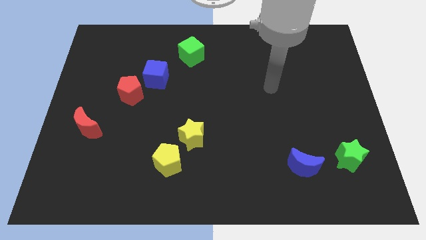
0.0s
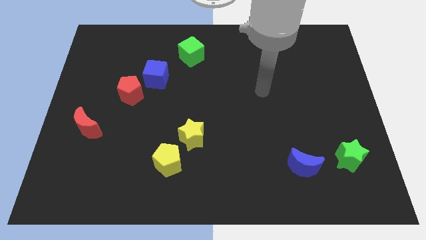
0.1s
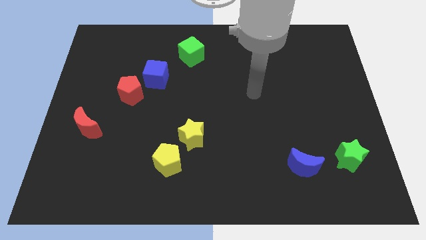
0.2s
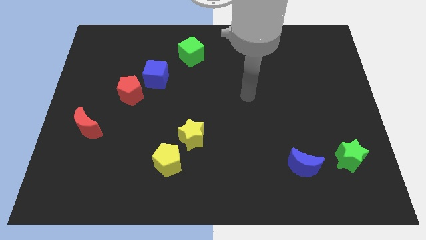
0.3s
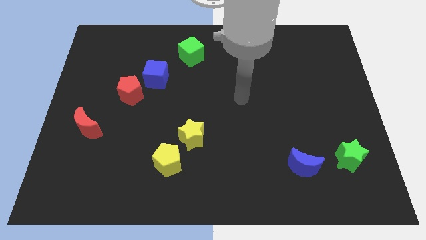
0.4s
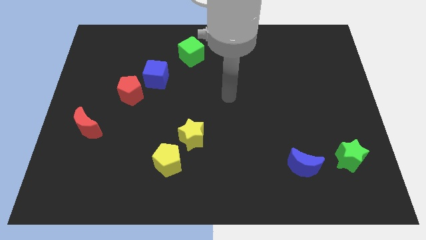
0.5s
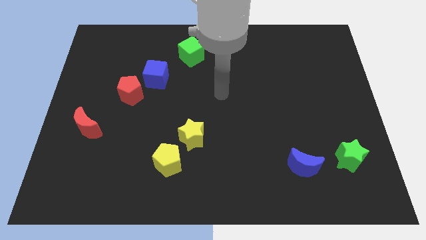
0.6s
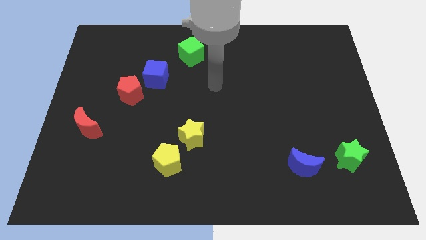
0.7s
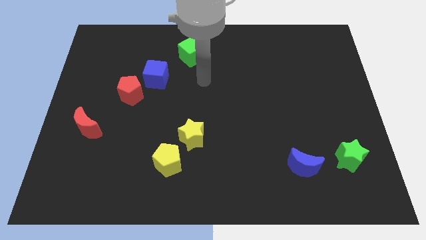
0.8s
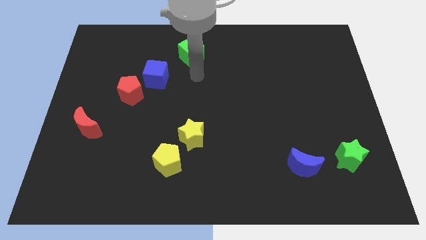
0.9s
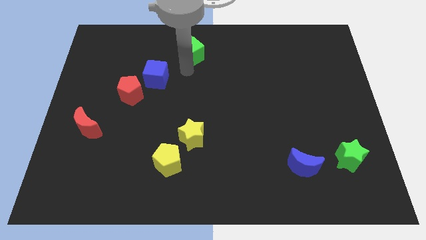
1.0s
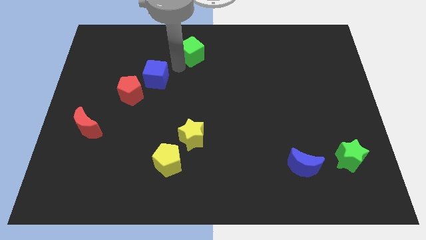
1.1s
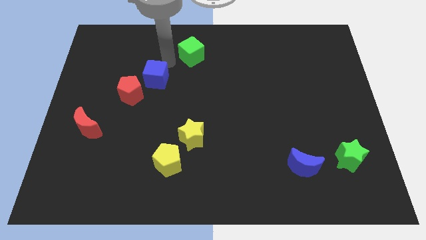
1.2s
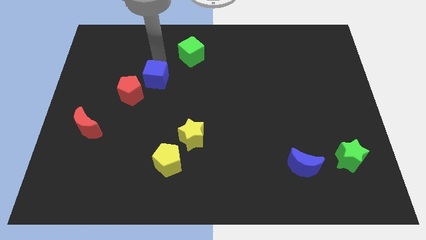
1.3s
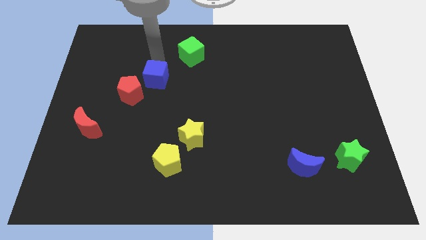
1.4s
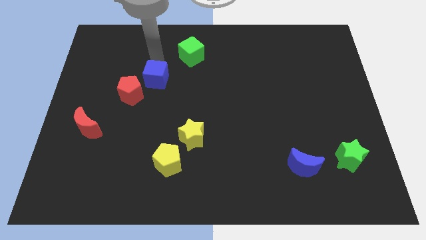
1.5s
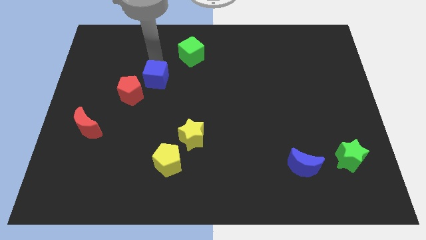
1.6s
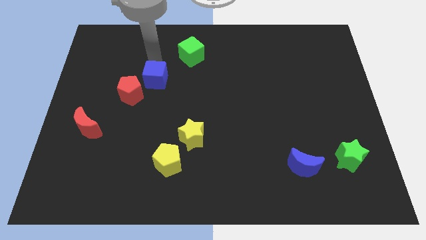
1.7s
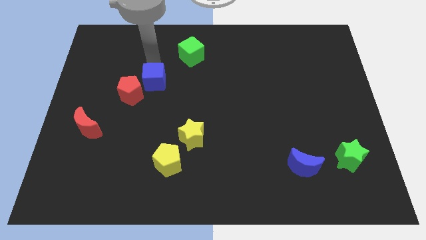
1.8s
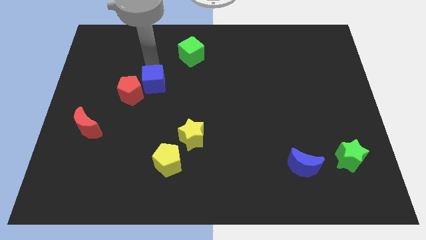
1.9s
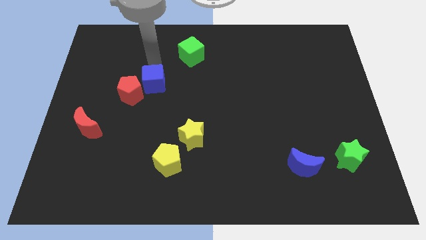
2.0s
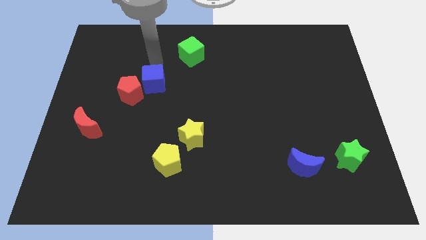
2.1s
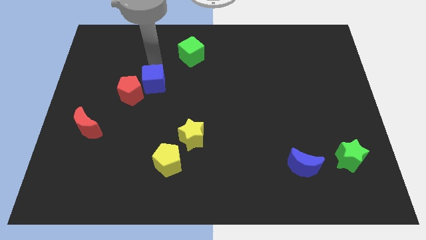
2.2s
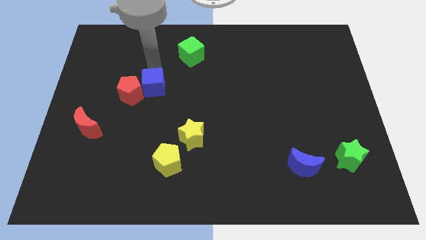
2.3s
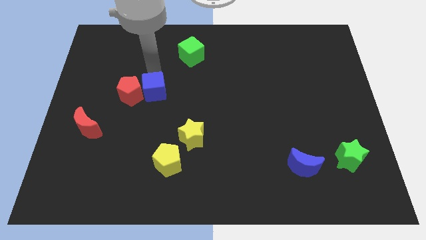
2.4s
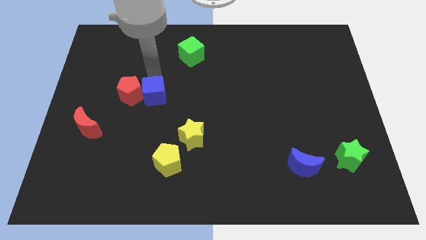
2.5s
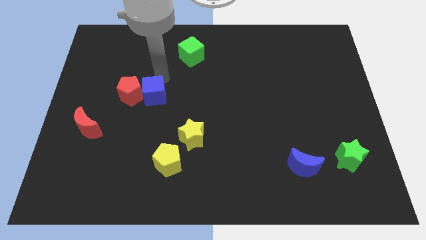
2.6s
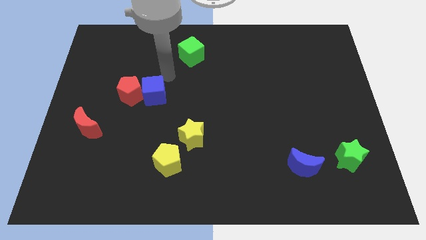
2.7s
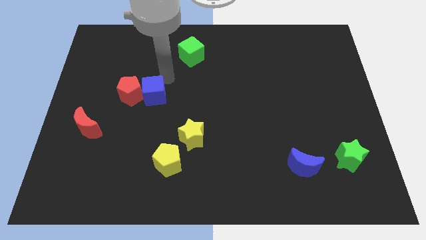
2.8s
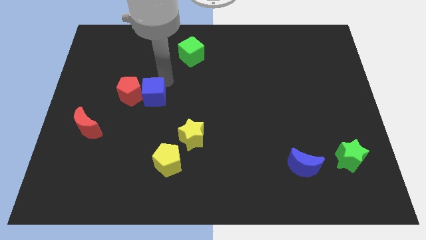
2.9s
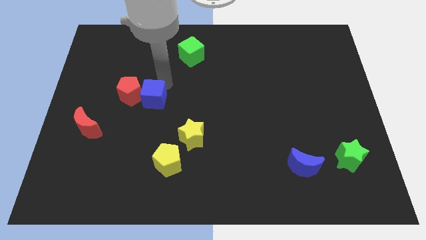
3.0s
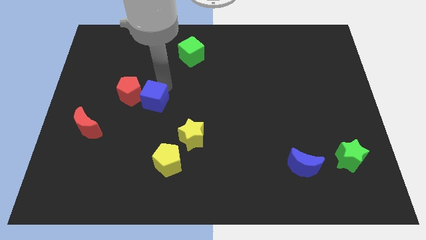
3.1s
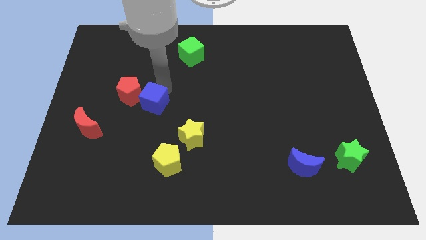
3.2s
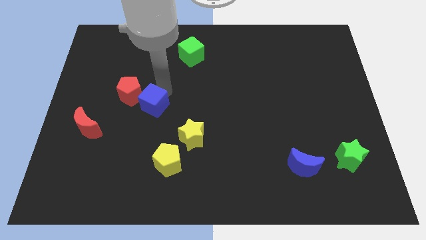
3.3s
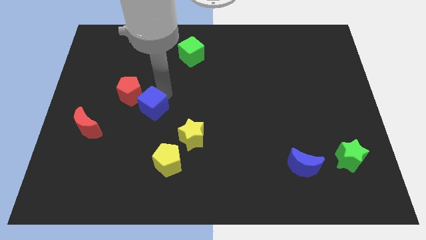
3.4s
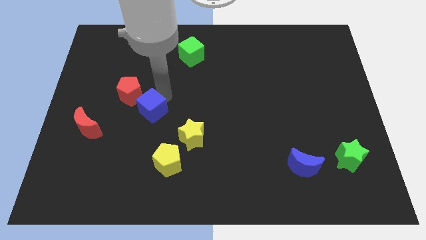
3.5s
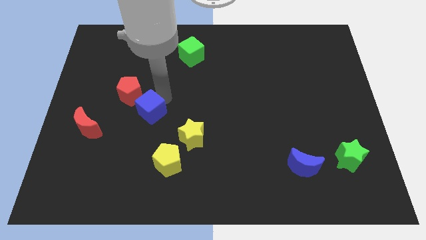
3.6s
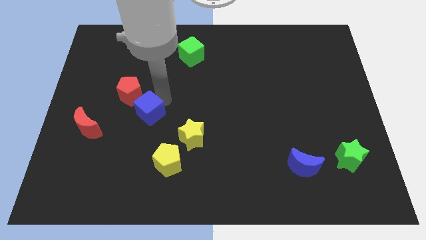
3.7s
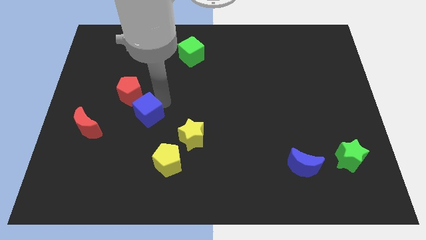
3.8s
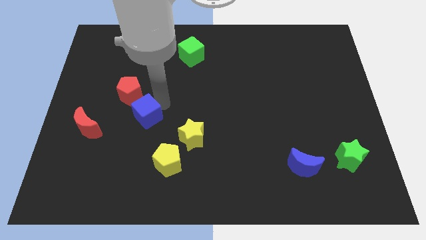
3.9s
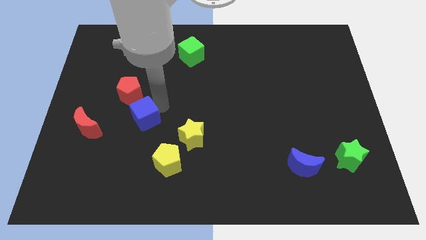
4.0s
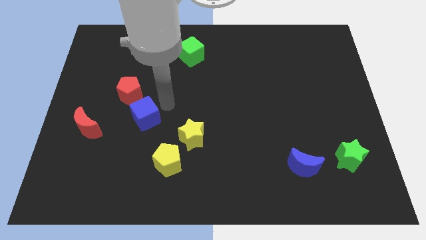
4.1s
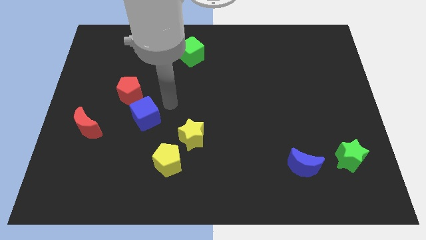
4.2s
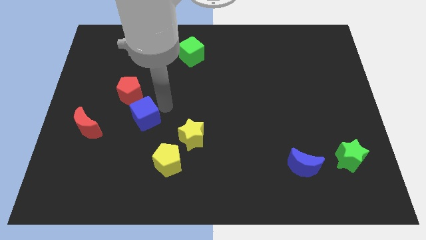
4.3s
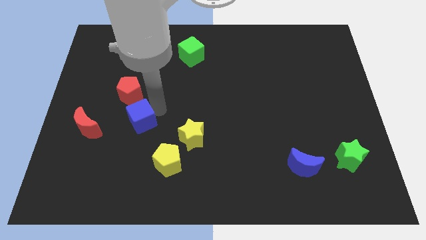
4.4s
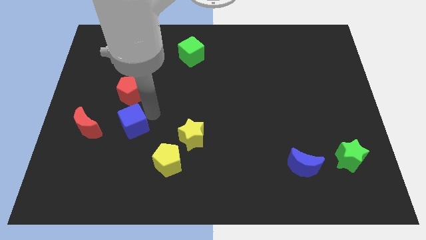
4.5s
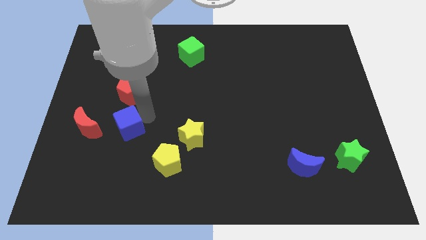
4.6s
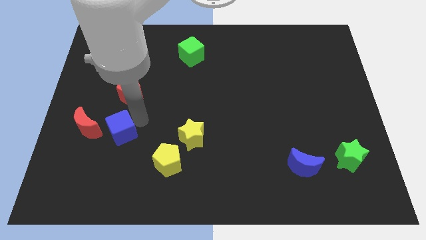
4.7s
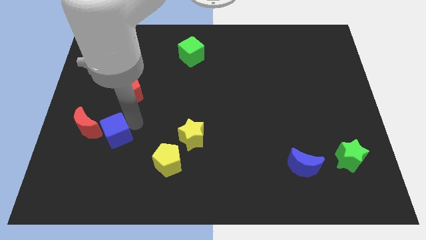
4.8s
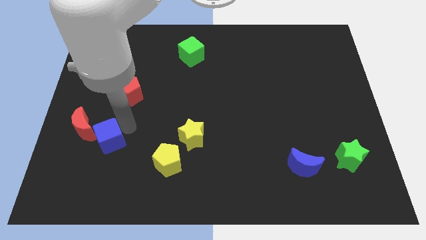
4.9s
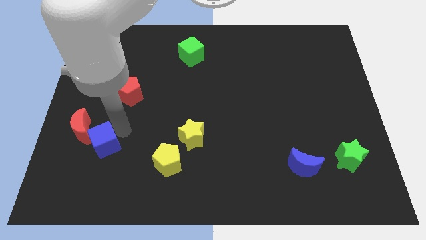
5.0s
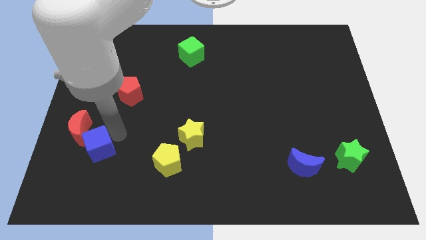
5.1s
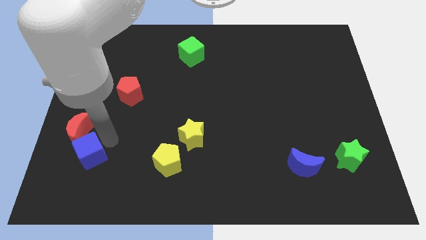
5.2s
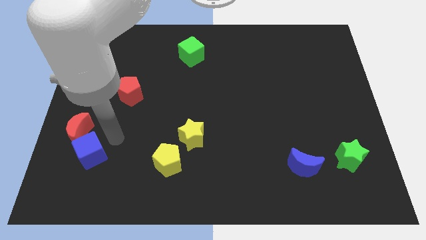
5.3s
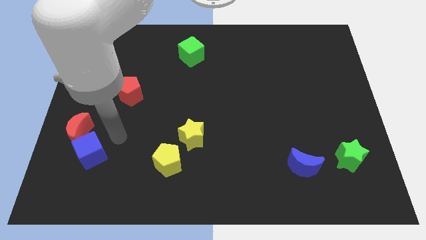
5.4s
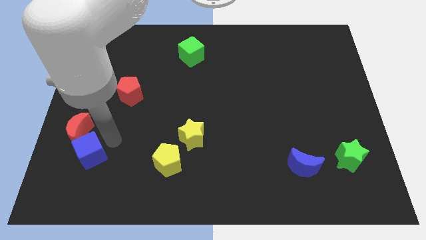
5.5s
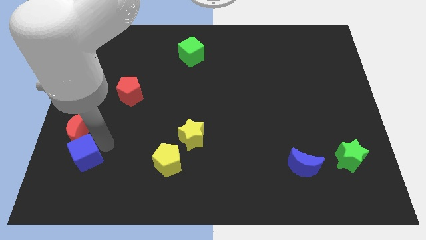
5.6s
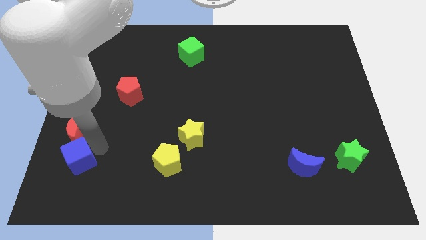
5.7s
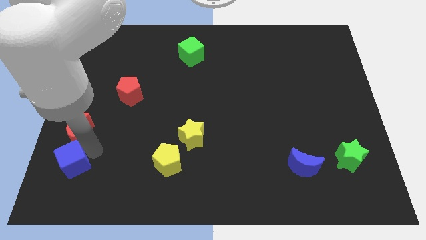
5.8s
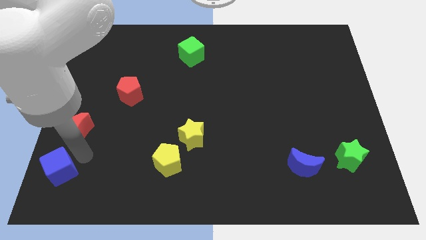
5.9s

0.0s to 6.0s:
move the blue cube to the bottom left
